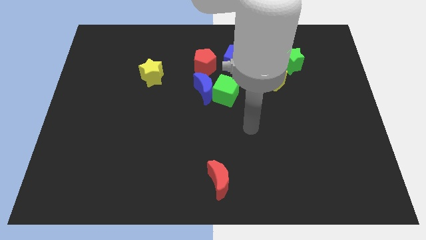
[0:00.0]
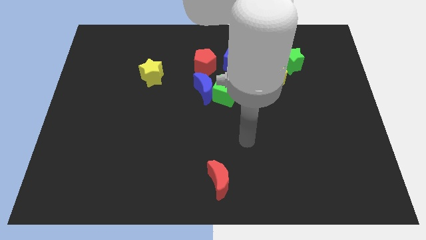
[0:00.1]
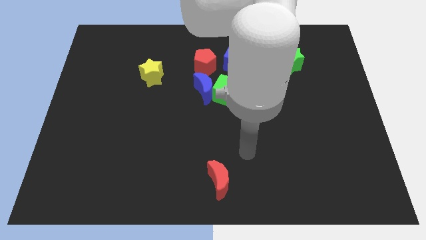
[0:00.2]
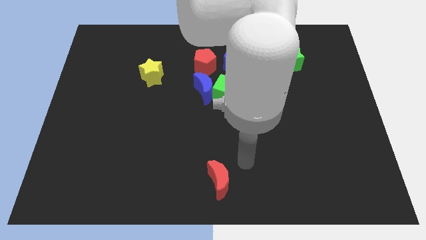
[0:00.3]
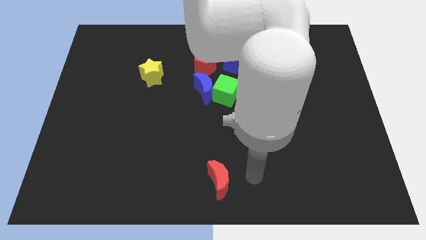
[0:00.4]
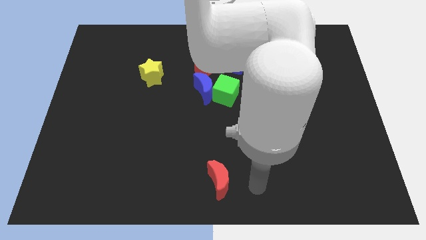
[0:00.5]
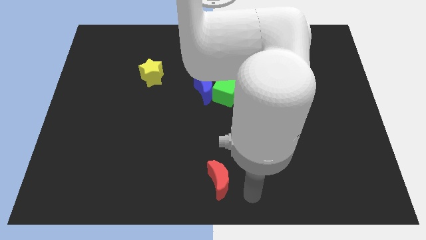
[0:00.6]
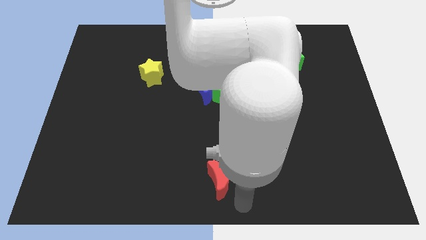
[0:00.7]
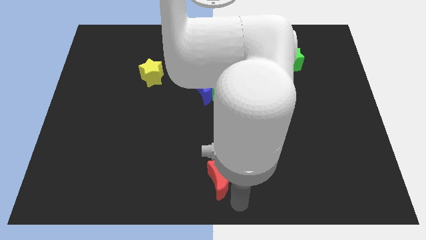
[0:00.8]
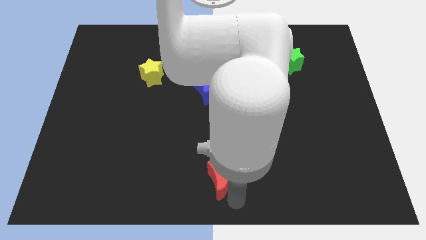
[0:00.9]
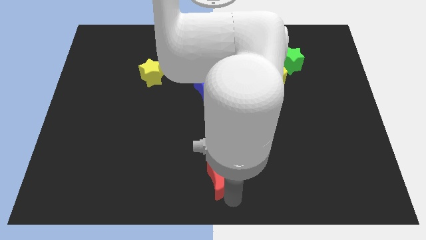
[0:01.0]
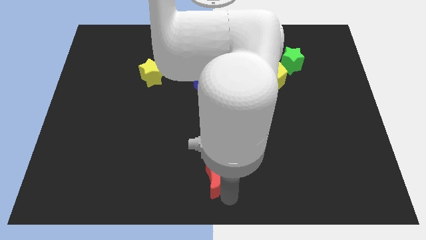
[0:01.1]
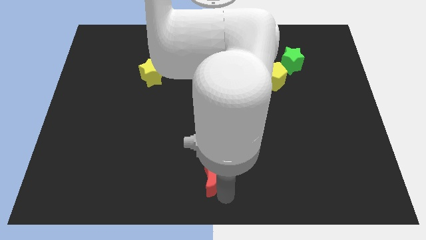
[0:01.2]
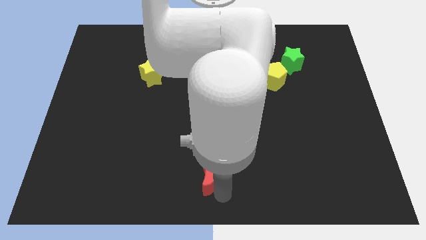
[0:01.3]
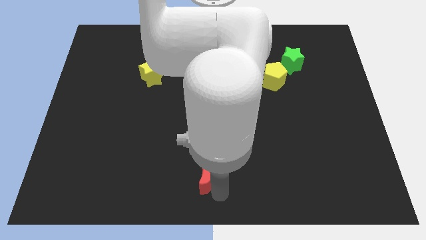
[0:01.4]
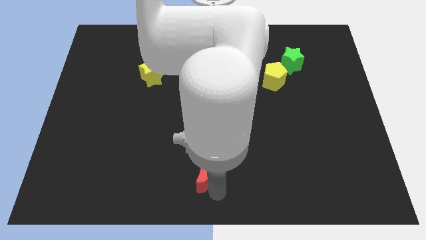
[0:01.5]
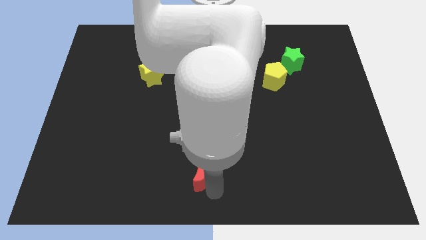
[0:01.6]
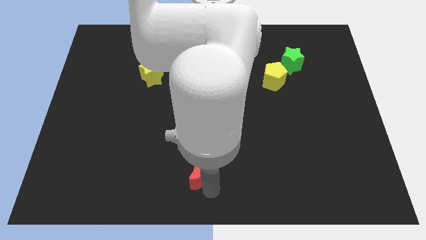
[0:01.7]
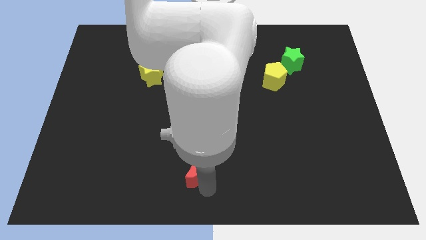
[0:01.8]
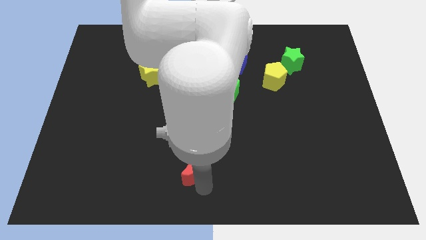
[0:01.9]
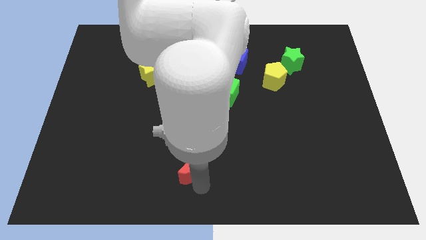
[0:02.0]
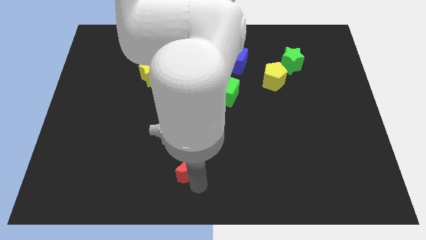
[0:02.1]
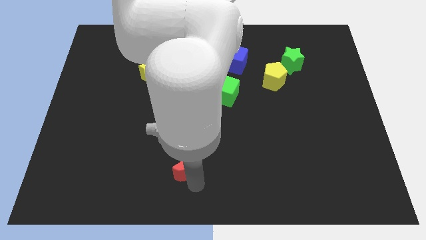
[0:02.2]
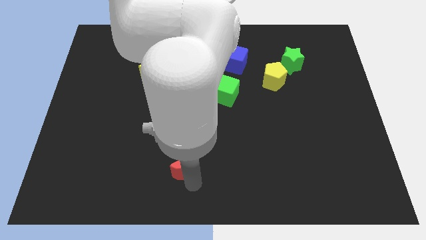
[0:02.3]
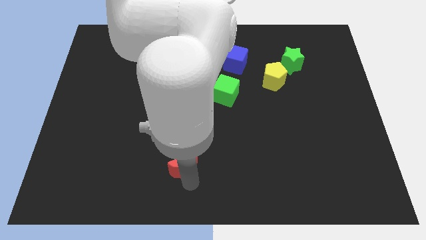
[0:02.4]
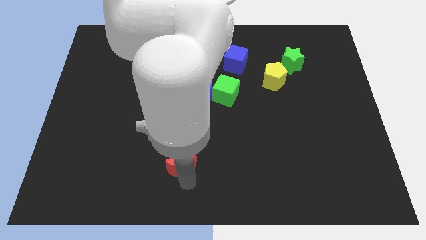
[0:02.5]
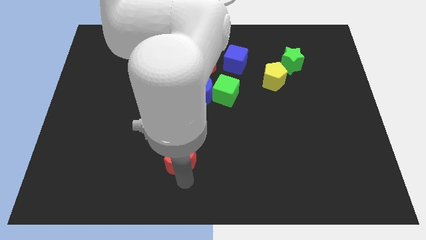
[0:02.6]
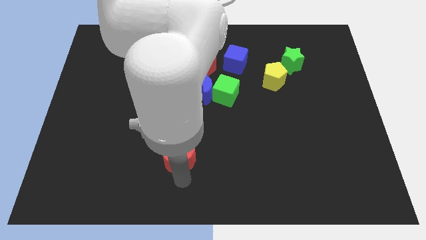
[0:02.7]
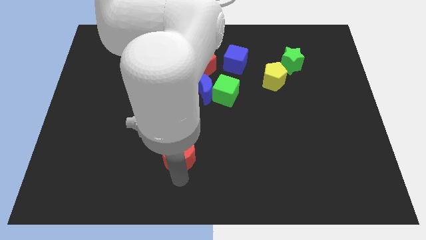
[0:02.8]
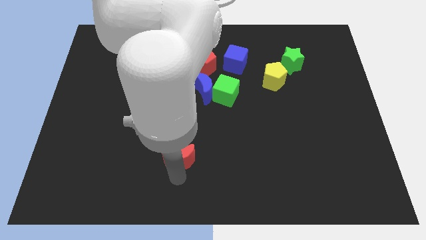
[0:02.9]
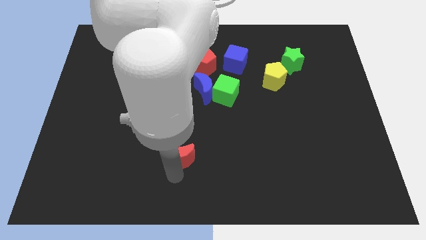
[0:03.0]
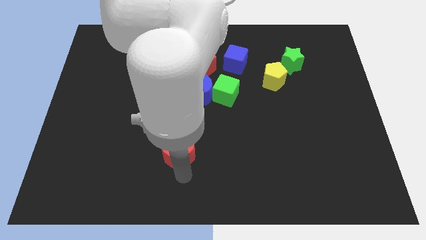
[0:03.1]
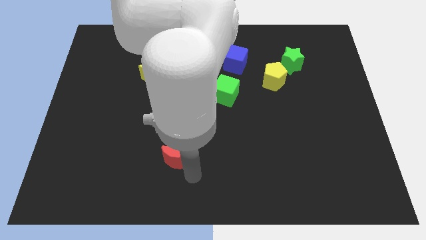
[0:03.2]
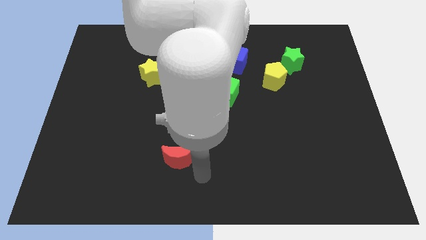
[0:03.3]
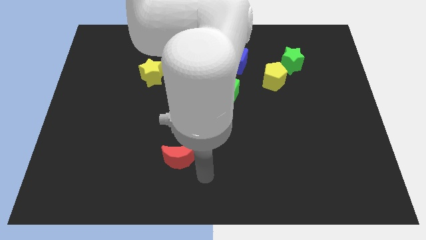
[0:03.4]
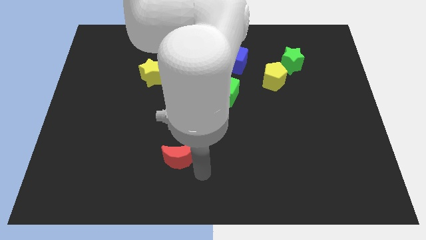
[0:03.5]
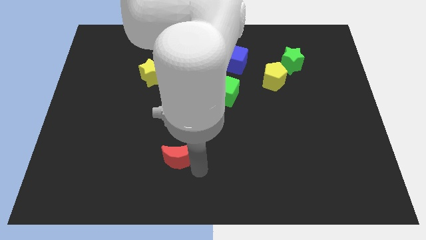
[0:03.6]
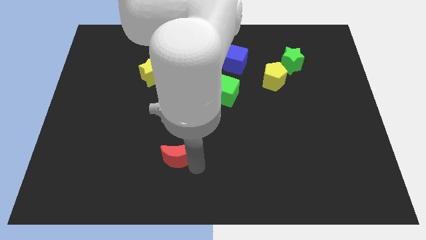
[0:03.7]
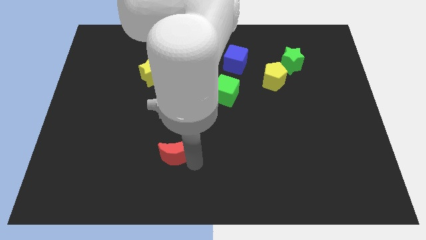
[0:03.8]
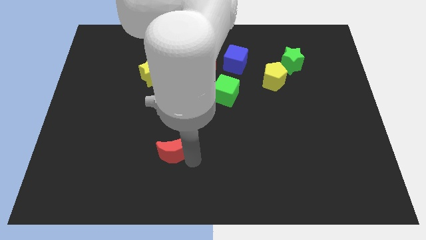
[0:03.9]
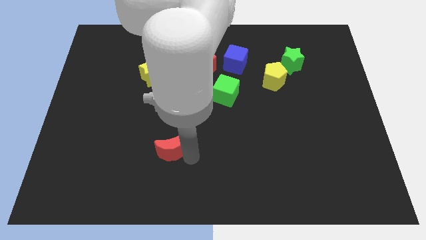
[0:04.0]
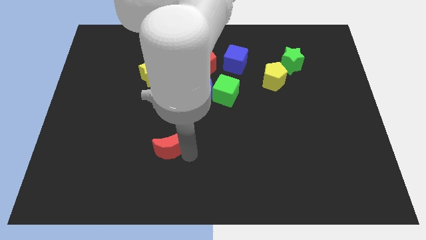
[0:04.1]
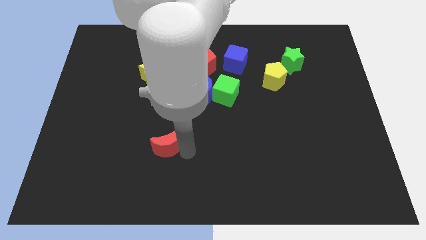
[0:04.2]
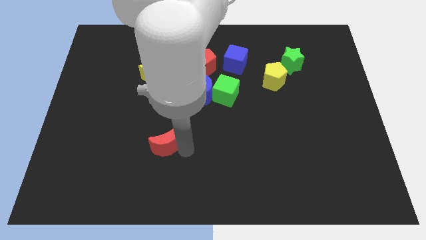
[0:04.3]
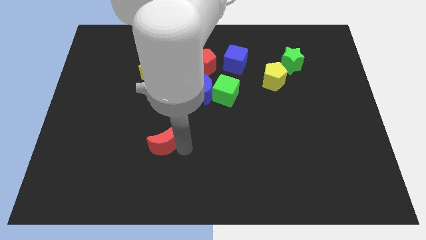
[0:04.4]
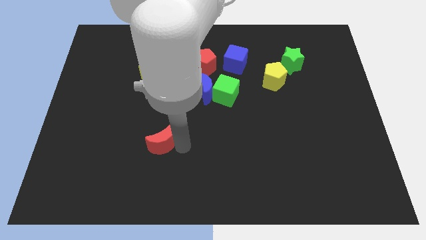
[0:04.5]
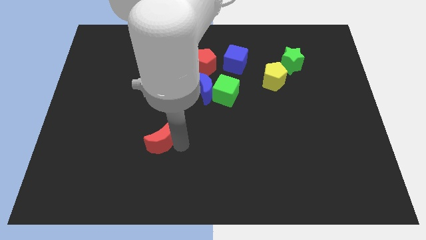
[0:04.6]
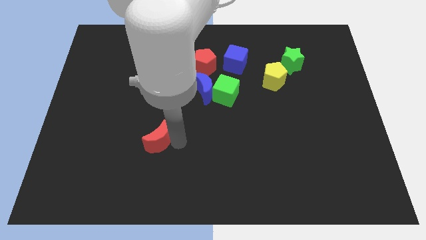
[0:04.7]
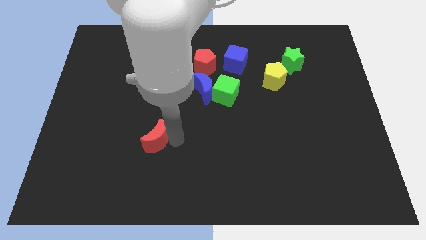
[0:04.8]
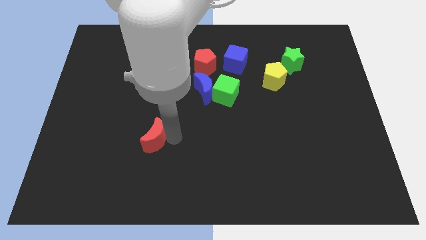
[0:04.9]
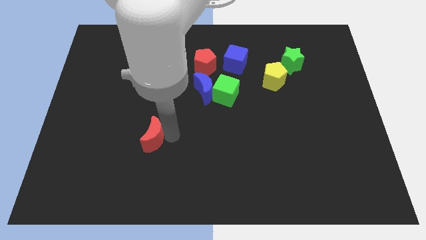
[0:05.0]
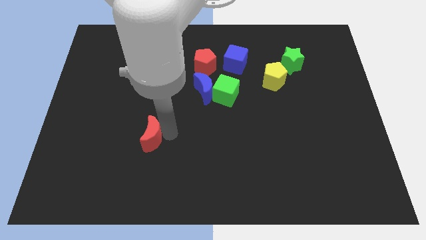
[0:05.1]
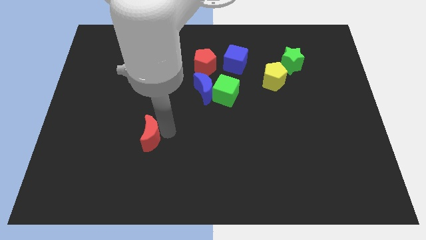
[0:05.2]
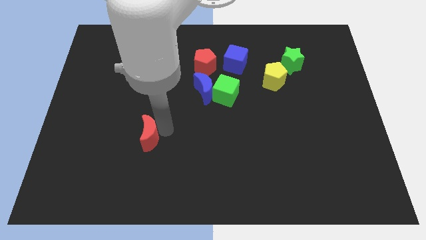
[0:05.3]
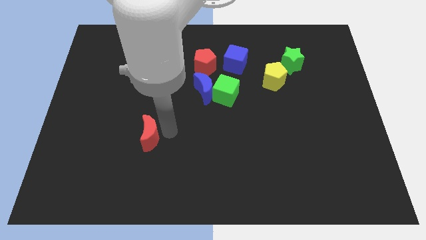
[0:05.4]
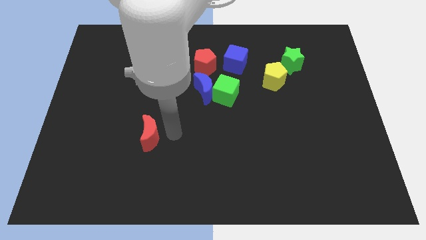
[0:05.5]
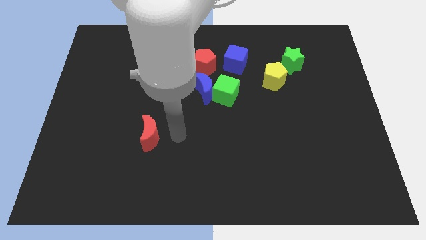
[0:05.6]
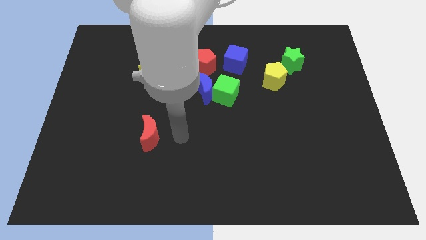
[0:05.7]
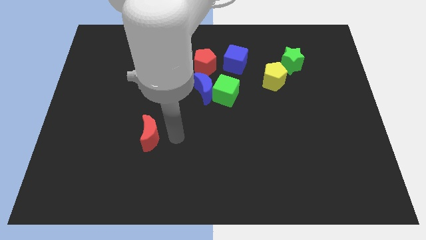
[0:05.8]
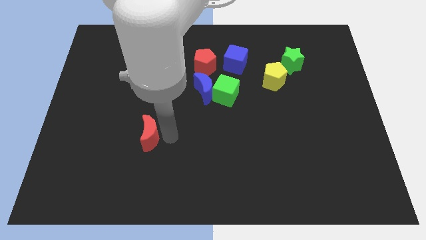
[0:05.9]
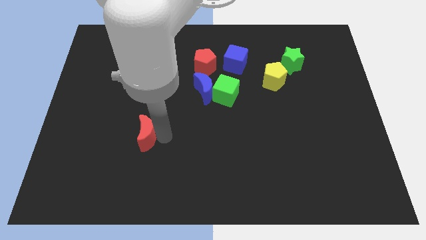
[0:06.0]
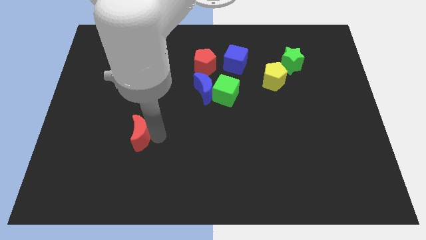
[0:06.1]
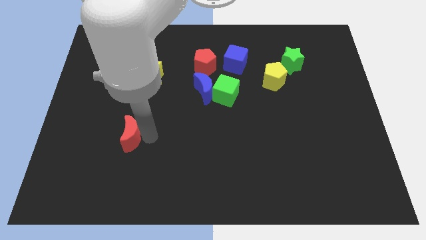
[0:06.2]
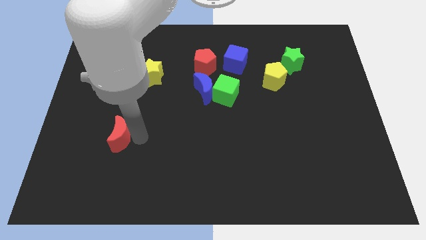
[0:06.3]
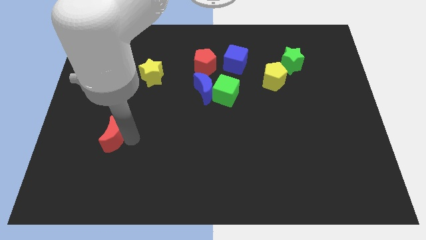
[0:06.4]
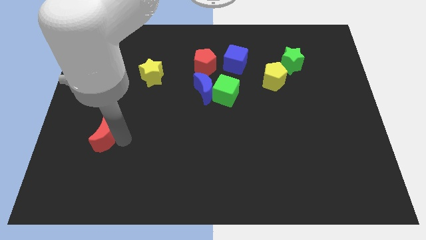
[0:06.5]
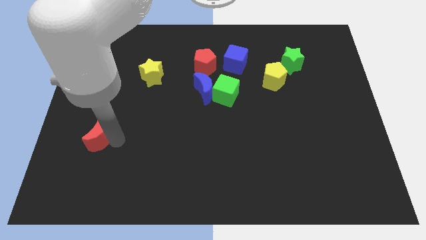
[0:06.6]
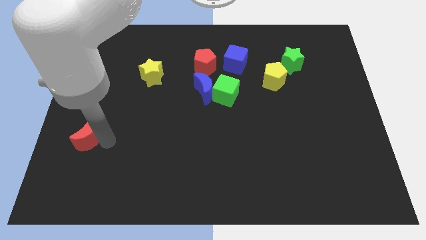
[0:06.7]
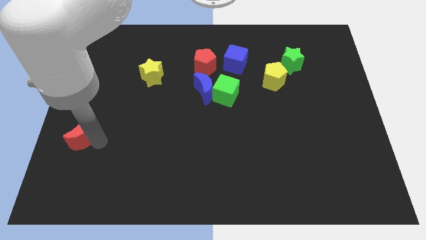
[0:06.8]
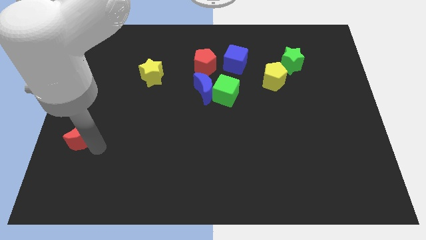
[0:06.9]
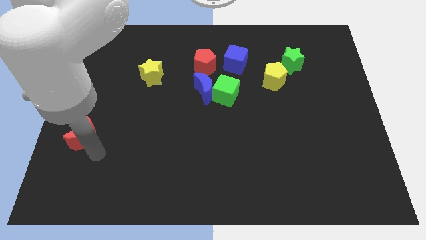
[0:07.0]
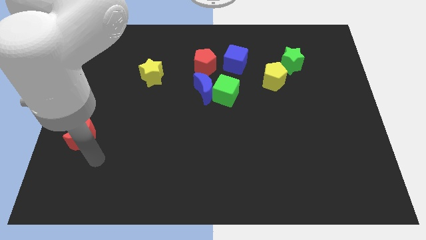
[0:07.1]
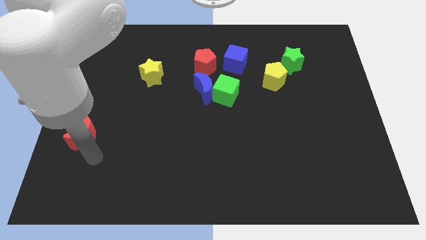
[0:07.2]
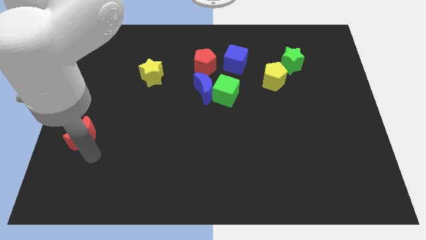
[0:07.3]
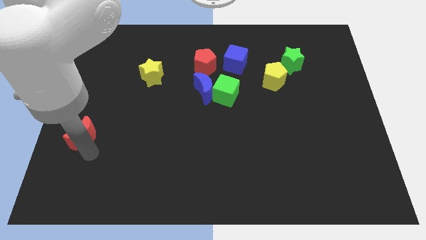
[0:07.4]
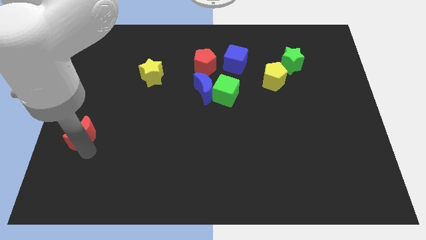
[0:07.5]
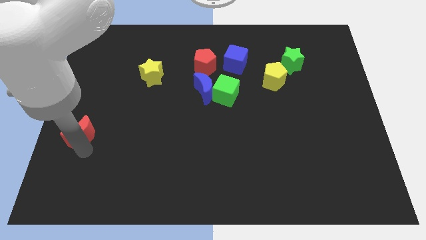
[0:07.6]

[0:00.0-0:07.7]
slide the red moon to the left side
